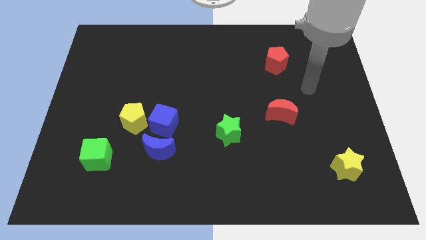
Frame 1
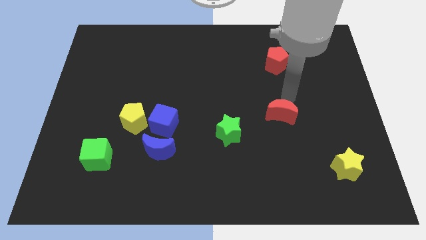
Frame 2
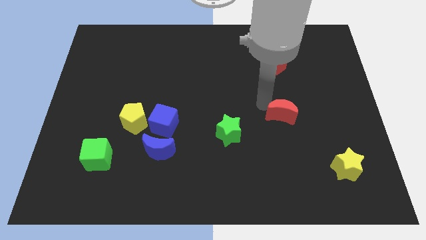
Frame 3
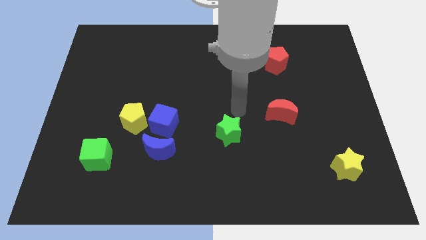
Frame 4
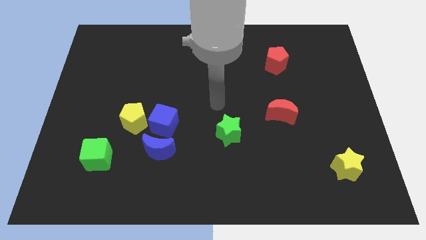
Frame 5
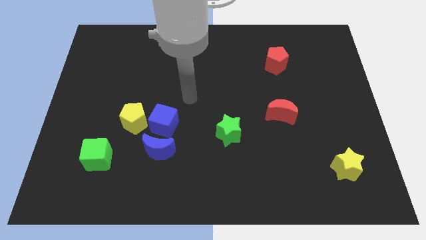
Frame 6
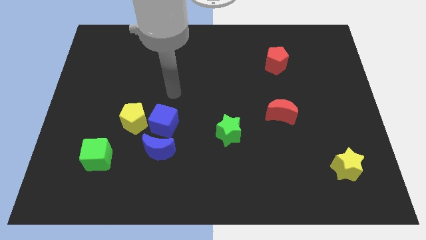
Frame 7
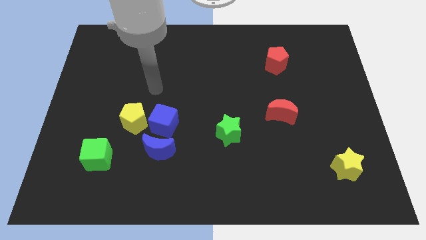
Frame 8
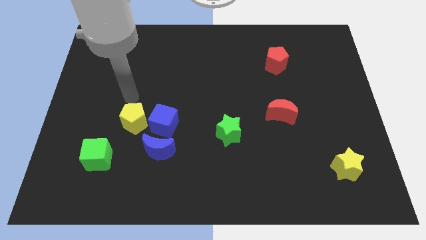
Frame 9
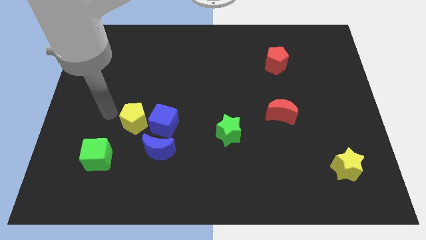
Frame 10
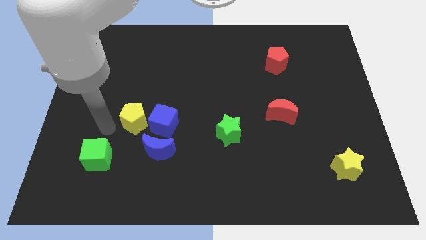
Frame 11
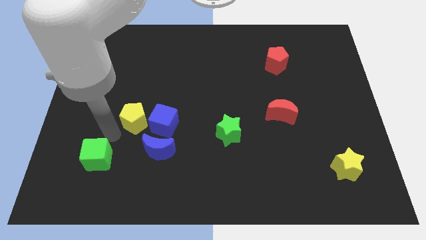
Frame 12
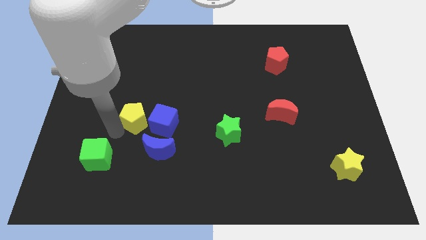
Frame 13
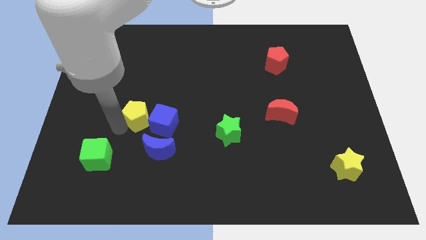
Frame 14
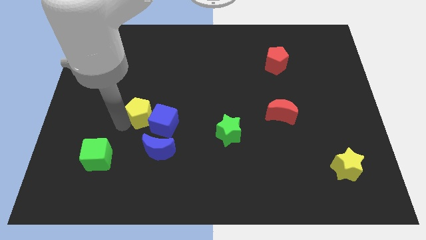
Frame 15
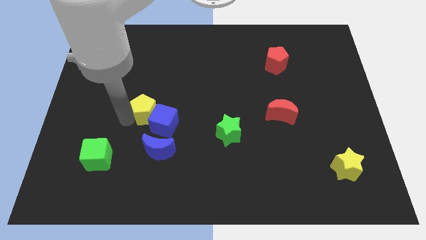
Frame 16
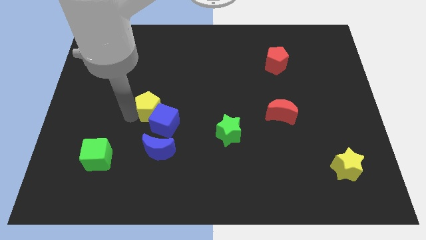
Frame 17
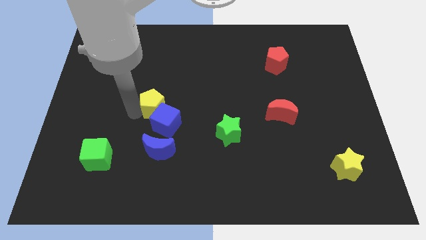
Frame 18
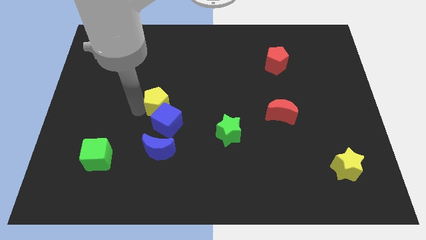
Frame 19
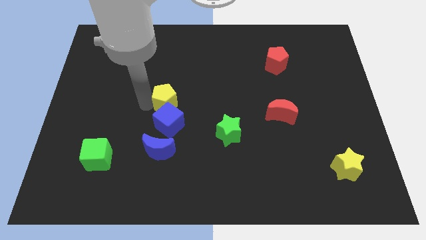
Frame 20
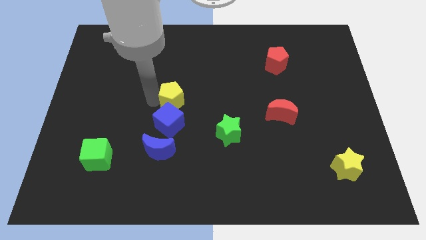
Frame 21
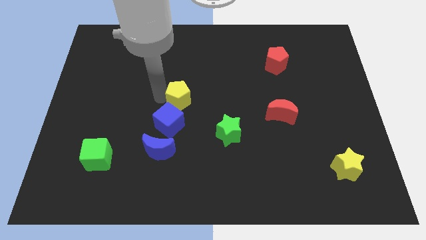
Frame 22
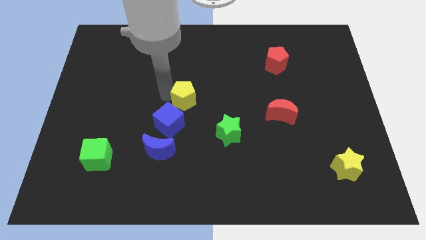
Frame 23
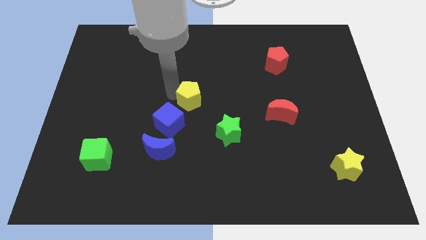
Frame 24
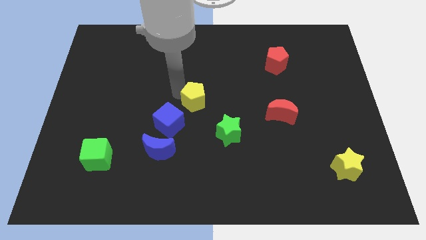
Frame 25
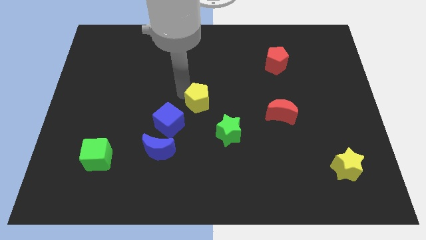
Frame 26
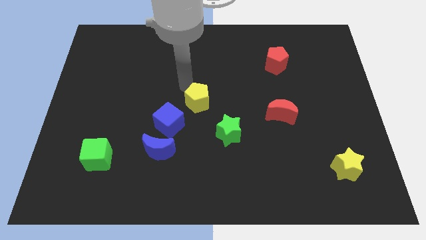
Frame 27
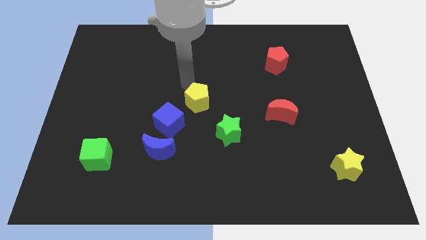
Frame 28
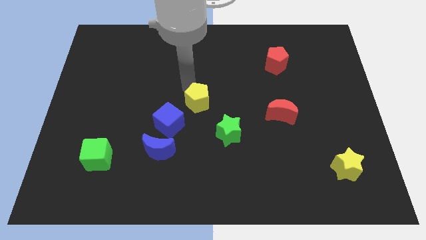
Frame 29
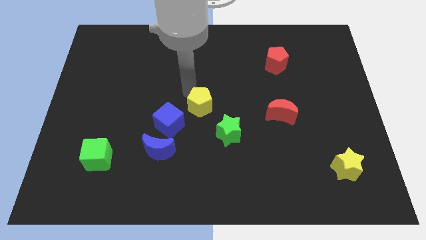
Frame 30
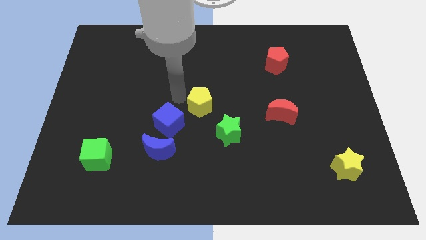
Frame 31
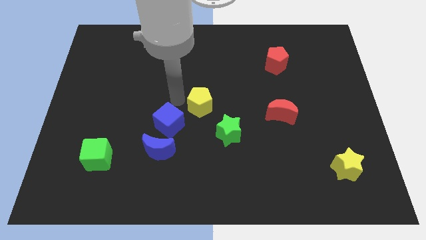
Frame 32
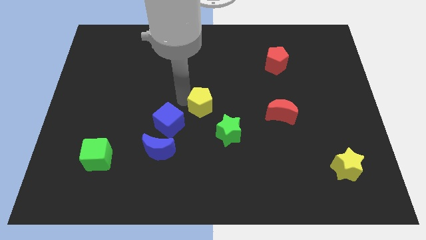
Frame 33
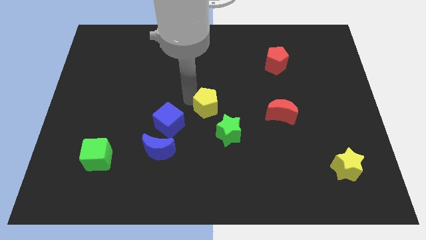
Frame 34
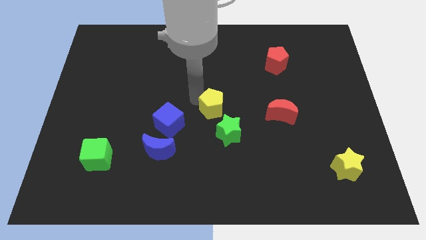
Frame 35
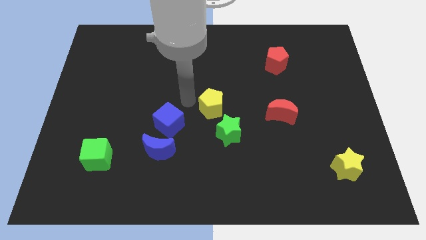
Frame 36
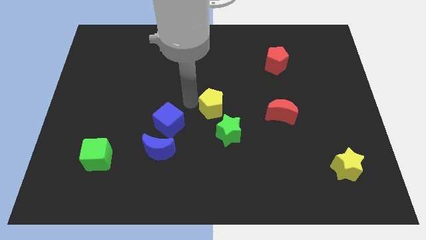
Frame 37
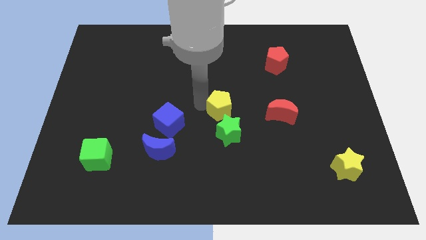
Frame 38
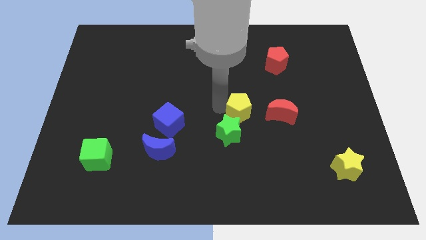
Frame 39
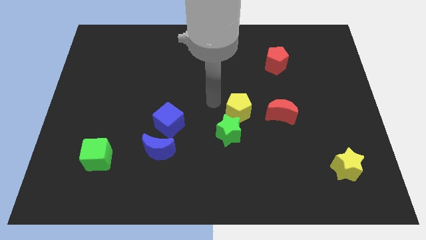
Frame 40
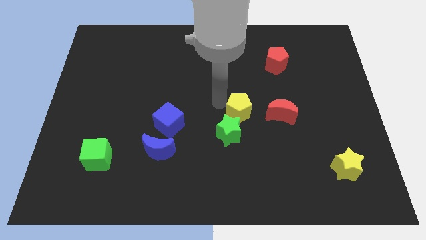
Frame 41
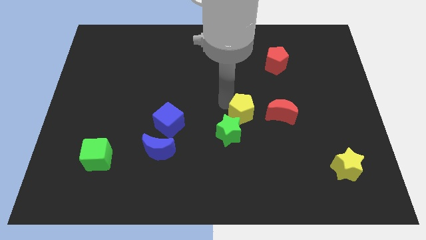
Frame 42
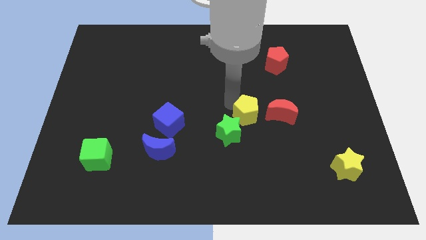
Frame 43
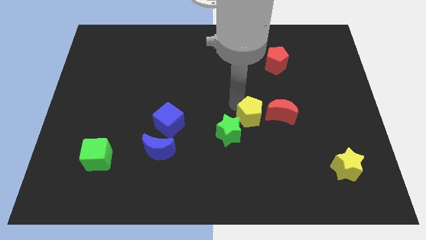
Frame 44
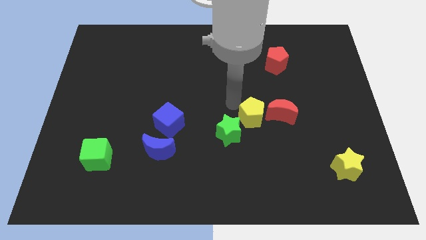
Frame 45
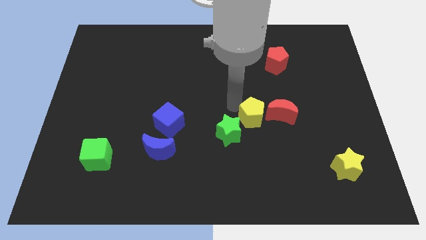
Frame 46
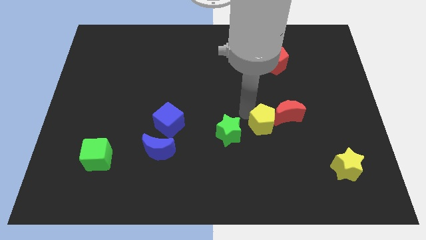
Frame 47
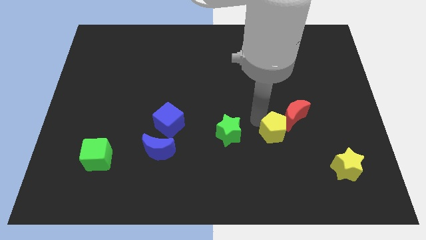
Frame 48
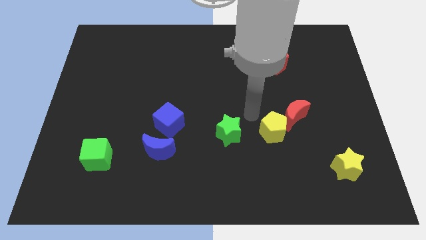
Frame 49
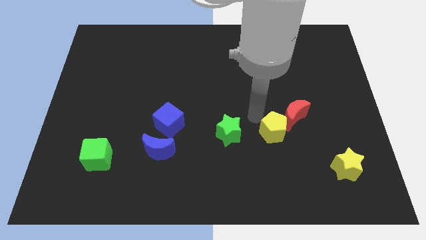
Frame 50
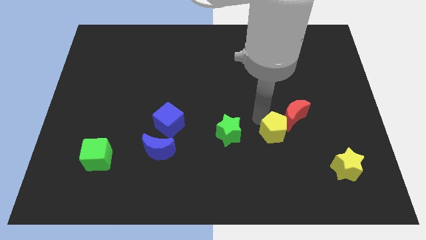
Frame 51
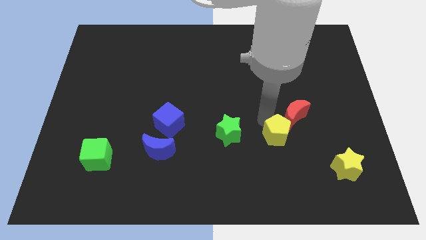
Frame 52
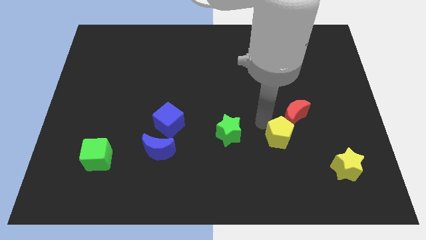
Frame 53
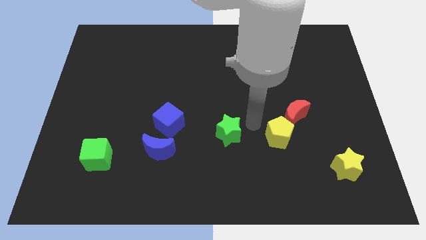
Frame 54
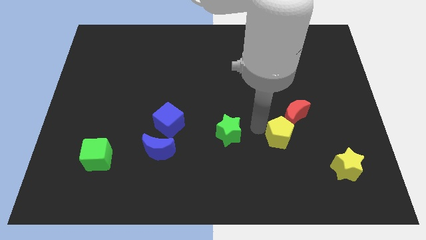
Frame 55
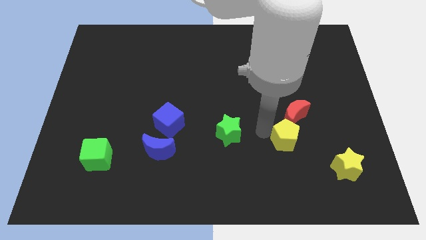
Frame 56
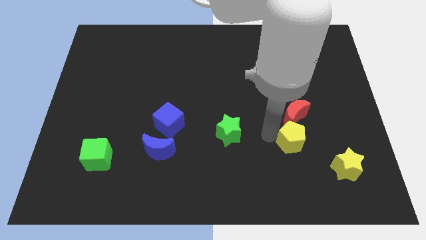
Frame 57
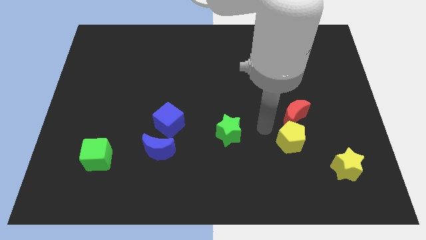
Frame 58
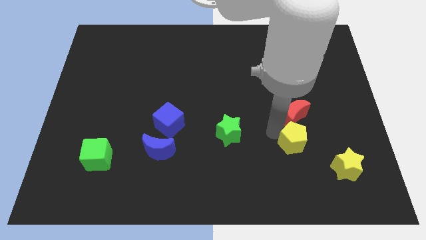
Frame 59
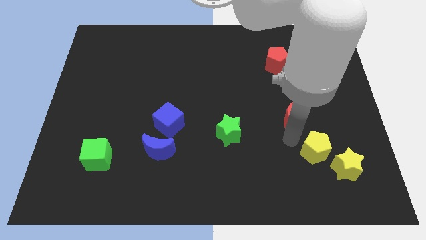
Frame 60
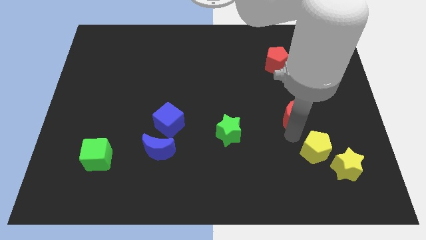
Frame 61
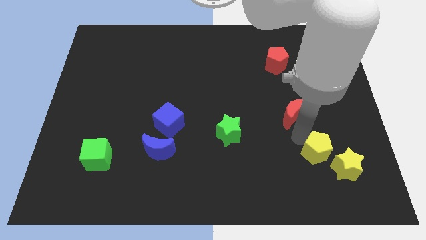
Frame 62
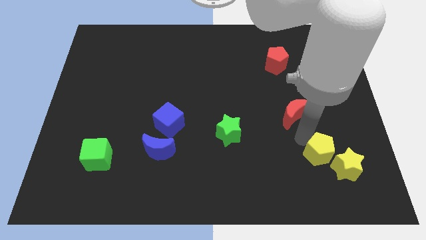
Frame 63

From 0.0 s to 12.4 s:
put the yellow pentagon next to the yellow star

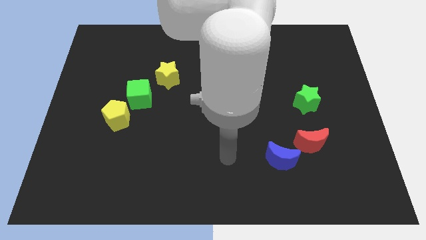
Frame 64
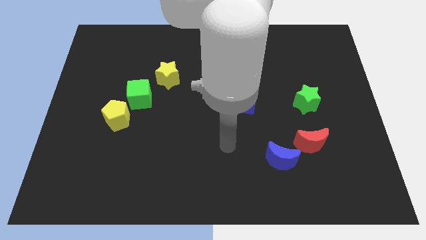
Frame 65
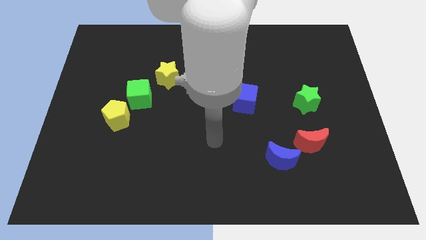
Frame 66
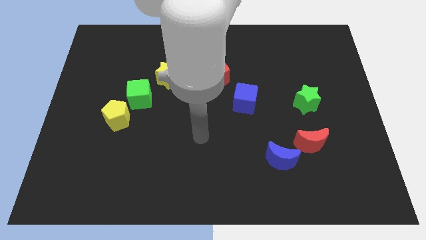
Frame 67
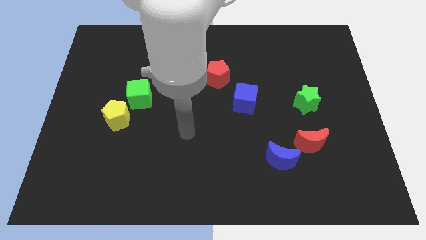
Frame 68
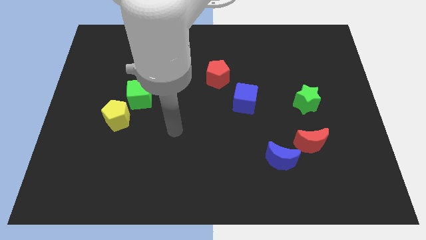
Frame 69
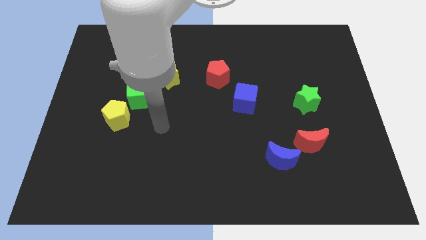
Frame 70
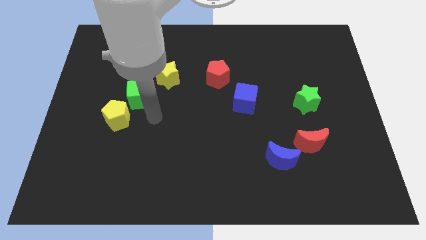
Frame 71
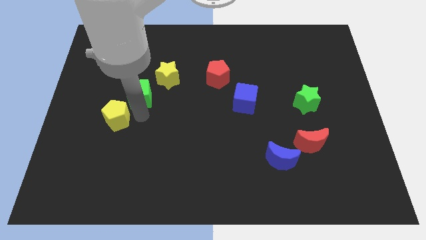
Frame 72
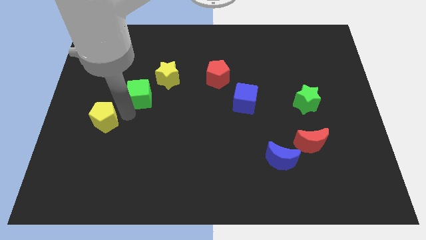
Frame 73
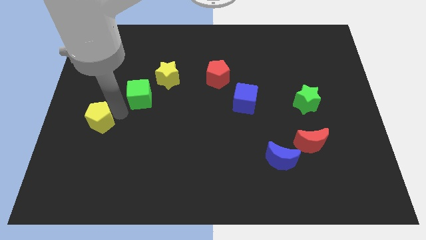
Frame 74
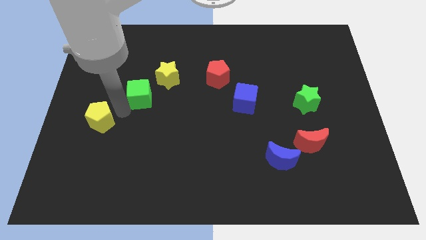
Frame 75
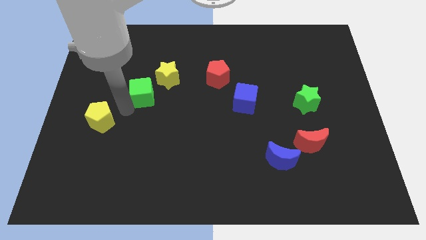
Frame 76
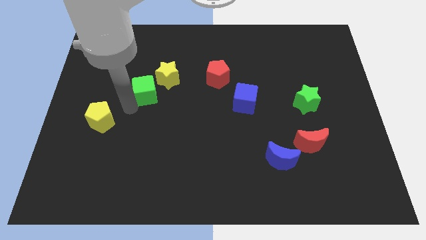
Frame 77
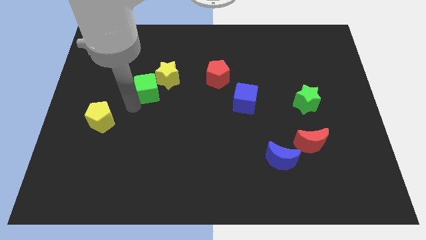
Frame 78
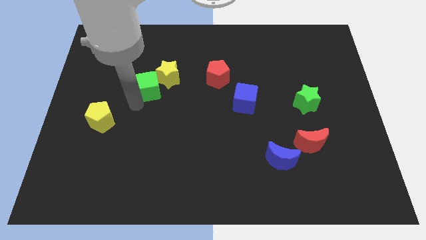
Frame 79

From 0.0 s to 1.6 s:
put the green cube next to the yellow star
